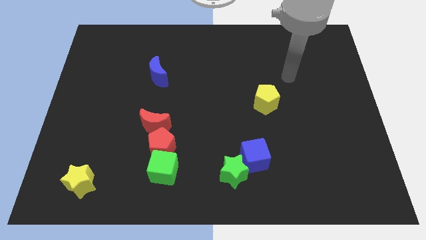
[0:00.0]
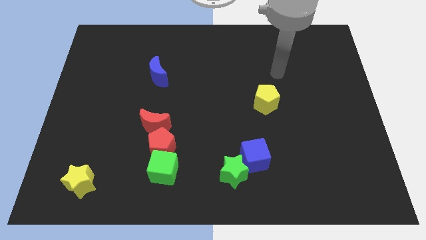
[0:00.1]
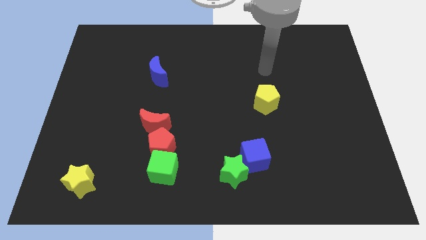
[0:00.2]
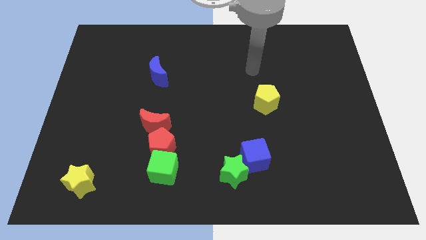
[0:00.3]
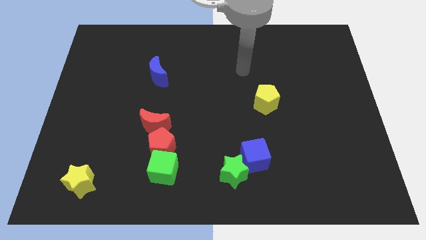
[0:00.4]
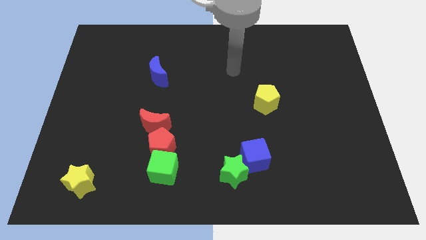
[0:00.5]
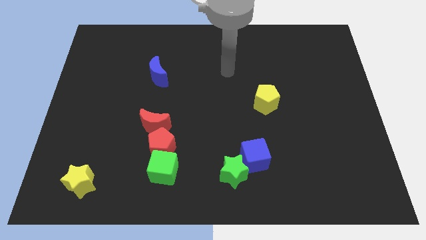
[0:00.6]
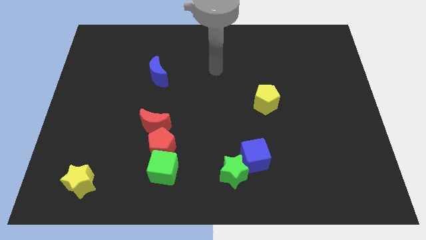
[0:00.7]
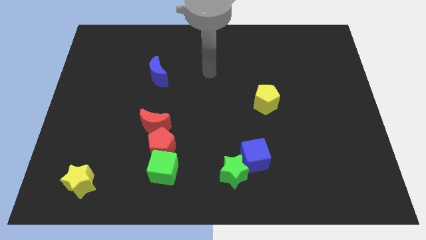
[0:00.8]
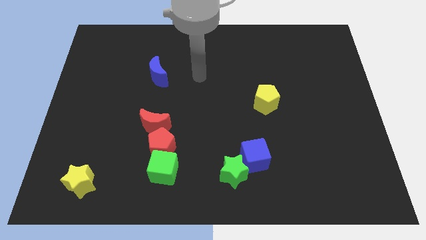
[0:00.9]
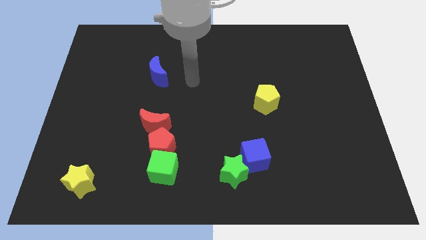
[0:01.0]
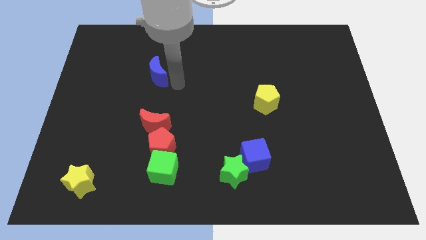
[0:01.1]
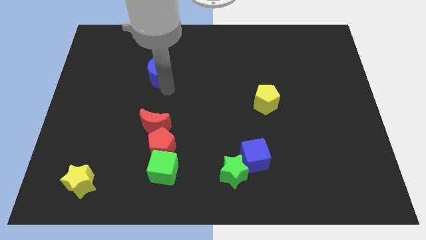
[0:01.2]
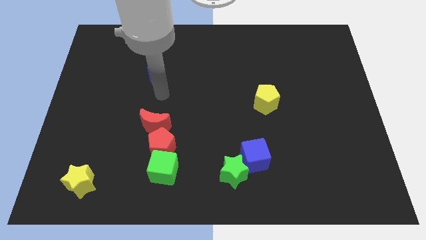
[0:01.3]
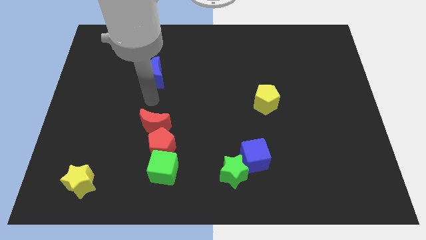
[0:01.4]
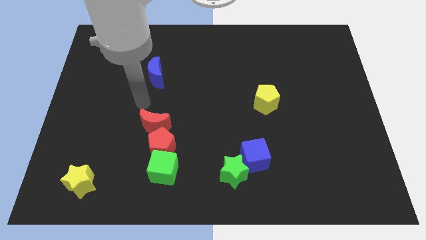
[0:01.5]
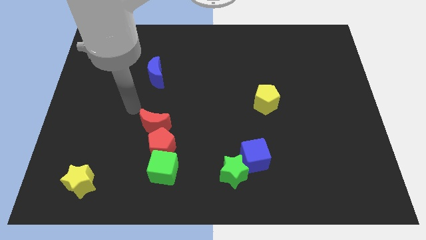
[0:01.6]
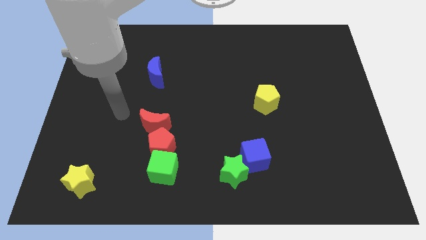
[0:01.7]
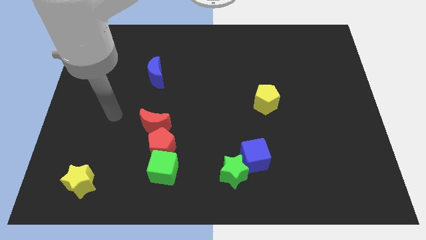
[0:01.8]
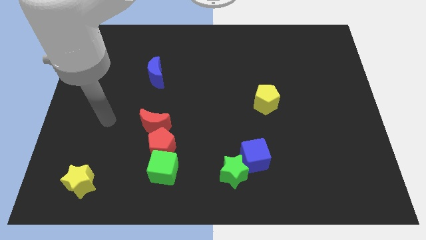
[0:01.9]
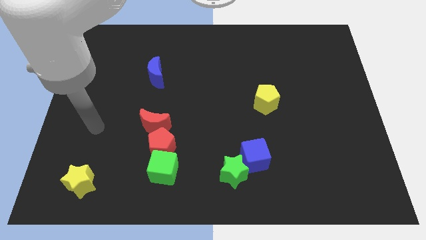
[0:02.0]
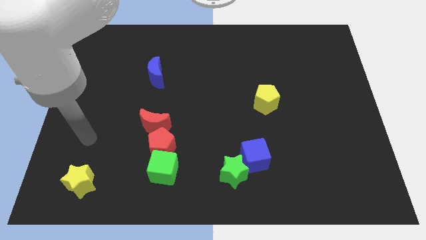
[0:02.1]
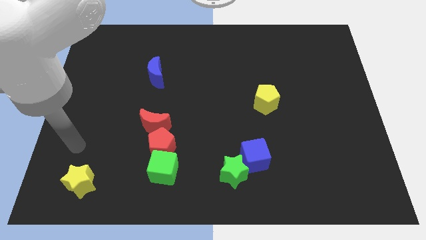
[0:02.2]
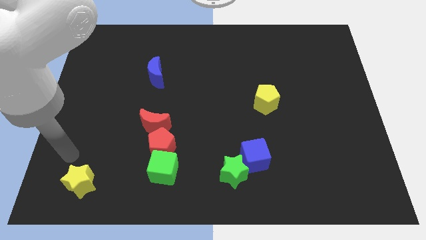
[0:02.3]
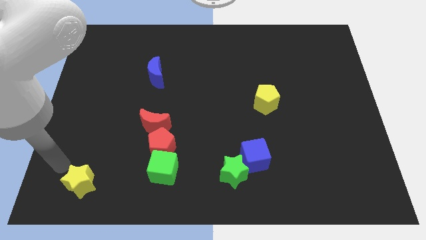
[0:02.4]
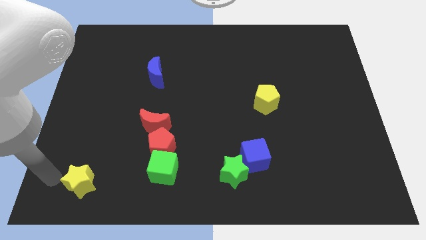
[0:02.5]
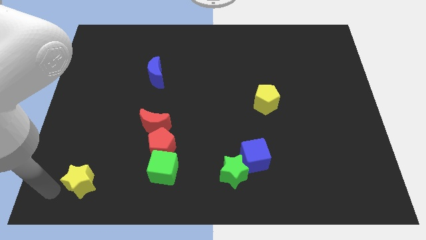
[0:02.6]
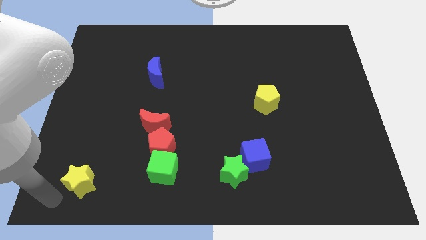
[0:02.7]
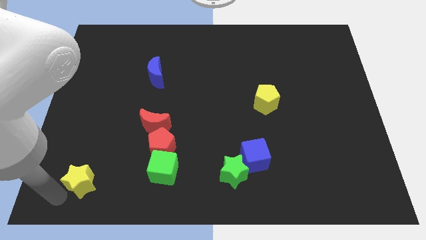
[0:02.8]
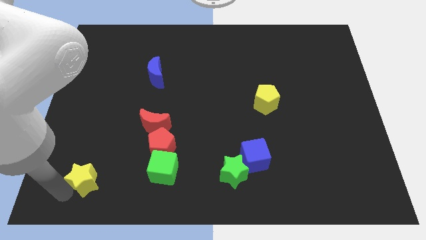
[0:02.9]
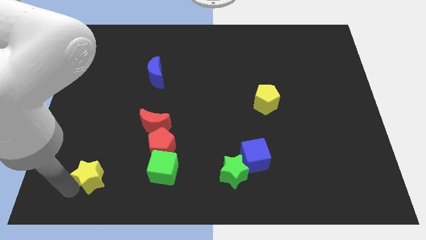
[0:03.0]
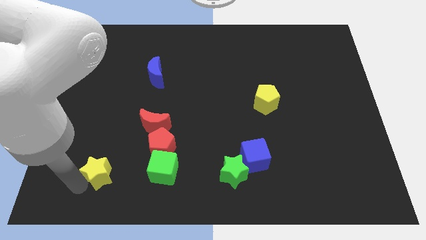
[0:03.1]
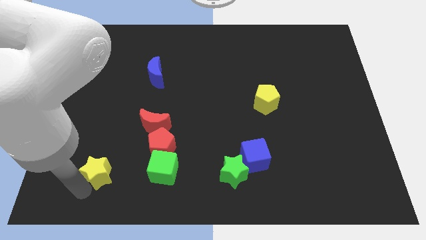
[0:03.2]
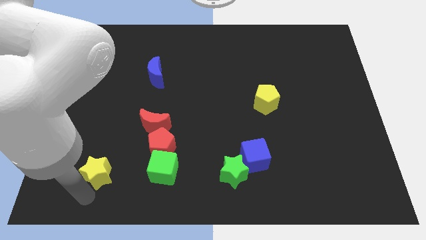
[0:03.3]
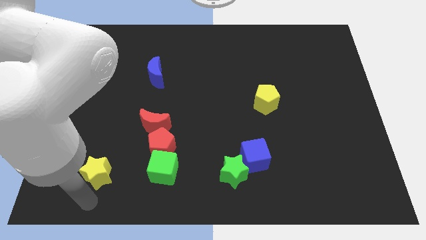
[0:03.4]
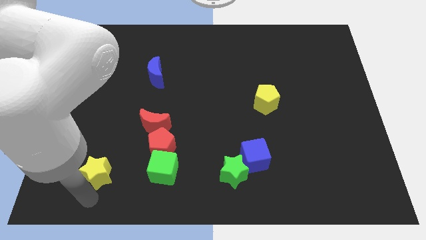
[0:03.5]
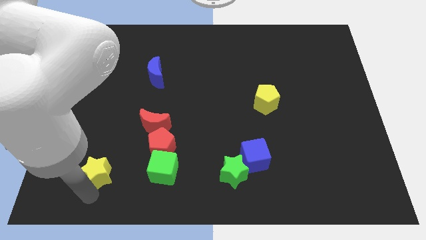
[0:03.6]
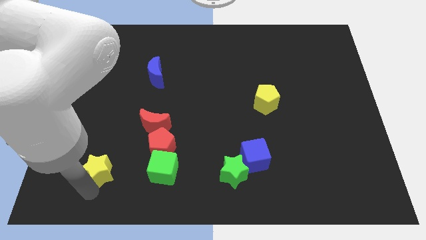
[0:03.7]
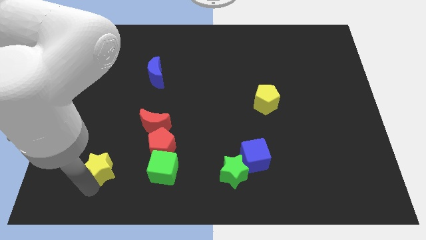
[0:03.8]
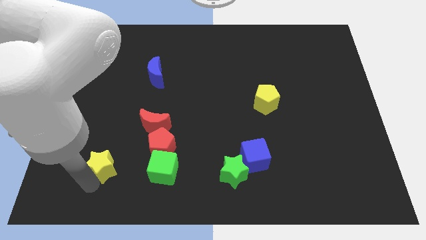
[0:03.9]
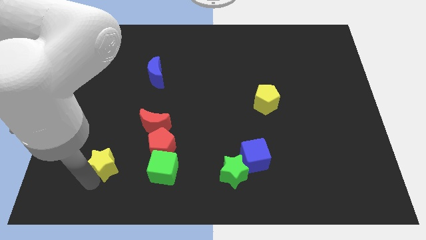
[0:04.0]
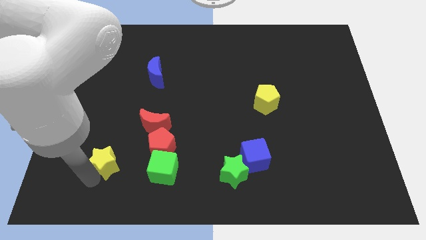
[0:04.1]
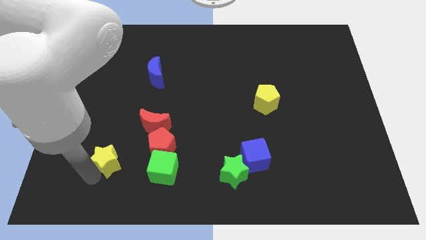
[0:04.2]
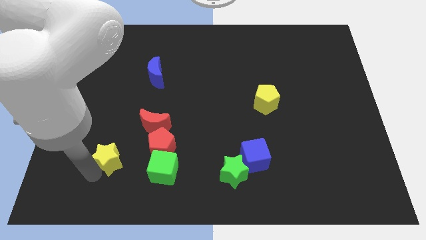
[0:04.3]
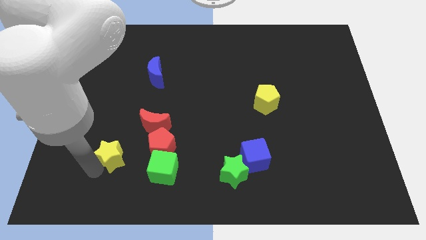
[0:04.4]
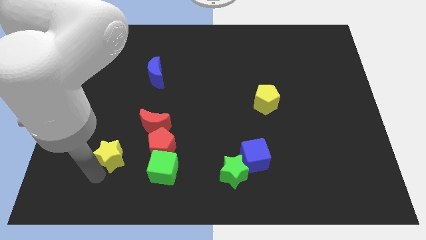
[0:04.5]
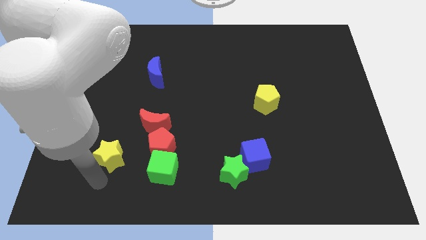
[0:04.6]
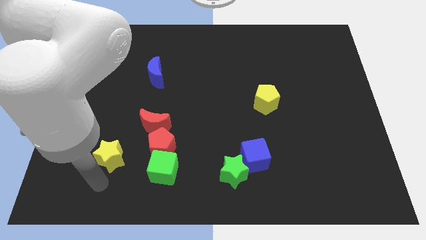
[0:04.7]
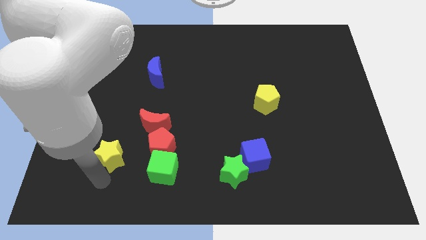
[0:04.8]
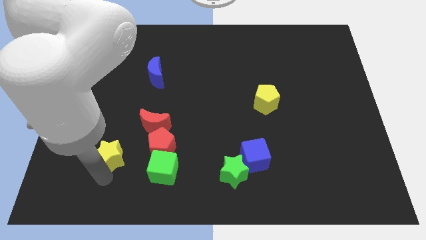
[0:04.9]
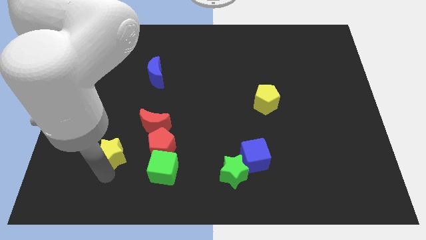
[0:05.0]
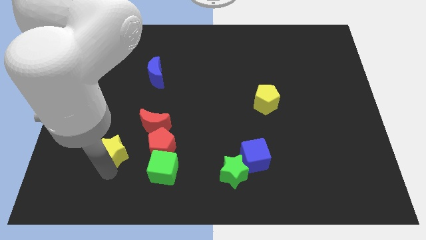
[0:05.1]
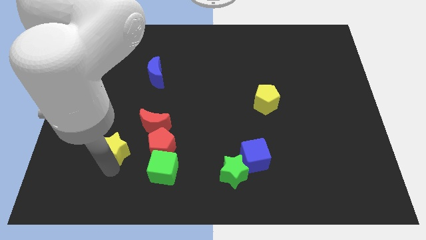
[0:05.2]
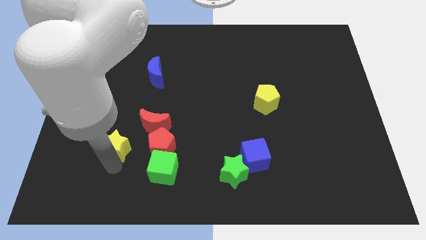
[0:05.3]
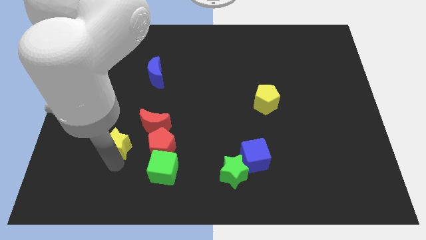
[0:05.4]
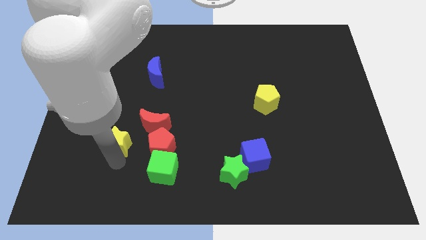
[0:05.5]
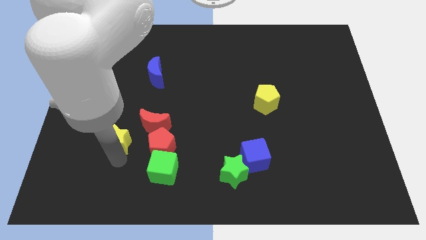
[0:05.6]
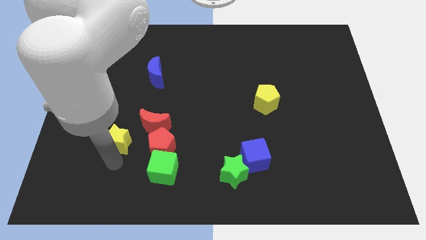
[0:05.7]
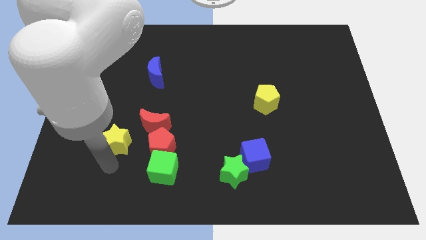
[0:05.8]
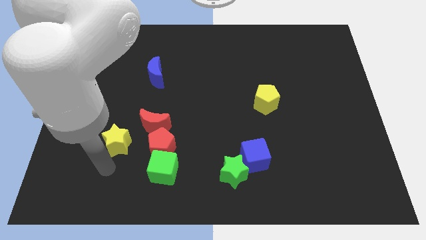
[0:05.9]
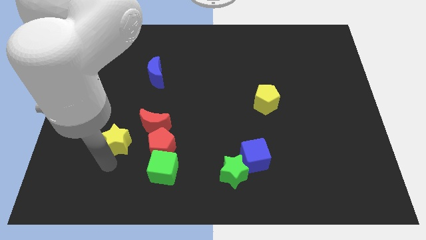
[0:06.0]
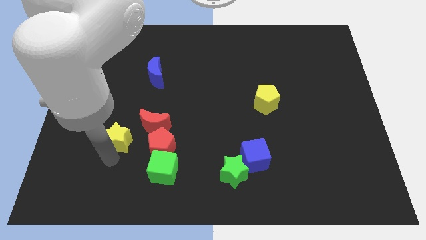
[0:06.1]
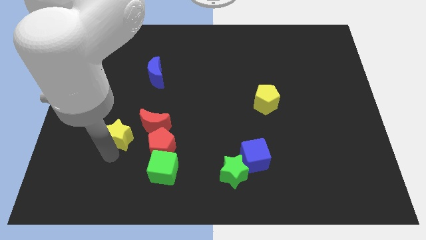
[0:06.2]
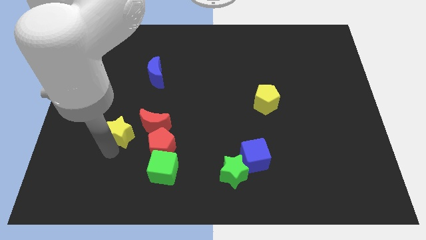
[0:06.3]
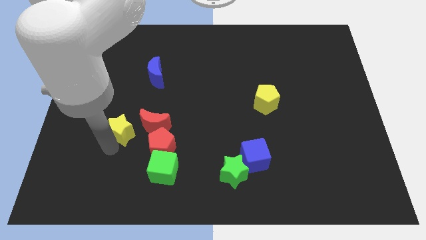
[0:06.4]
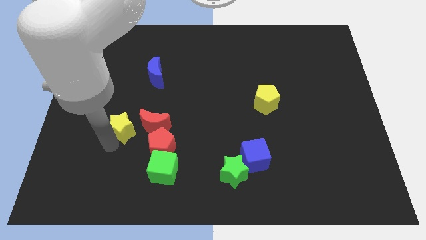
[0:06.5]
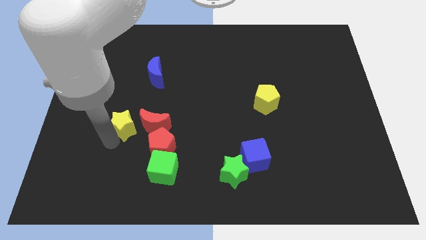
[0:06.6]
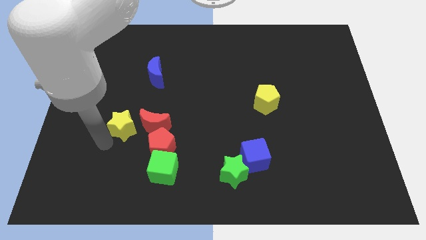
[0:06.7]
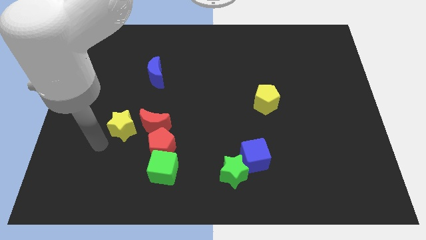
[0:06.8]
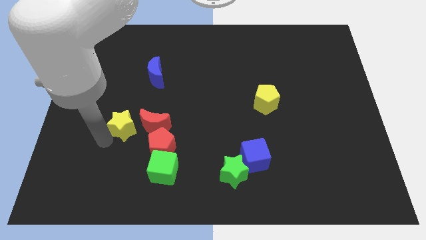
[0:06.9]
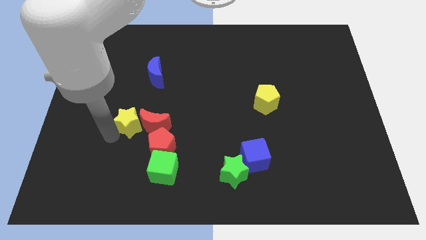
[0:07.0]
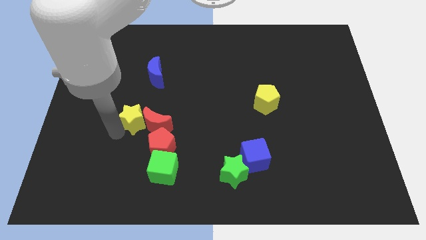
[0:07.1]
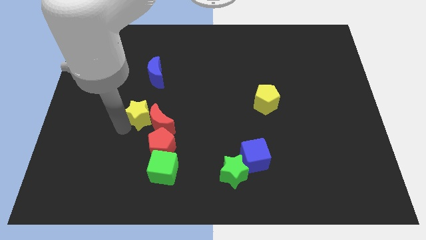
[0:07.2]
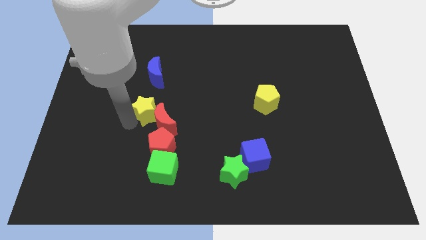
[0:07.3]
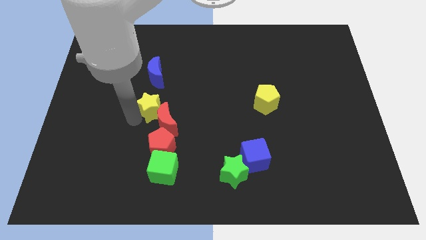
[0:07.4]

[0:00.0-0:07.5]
slide the yellow star up and then to the right

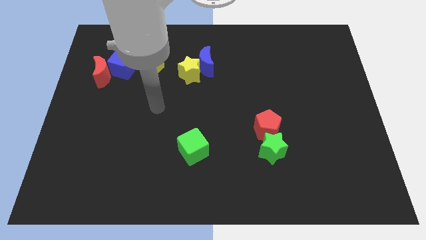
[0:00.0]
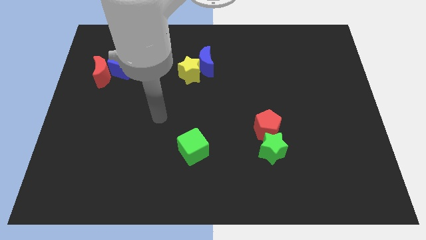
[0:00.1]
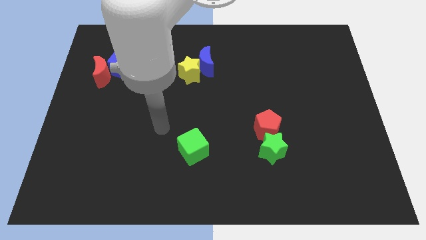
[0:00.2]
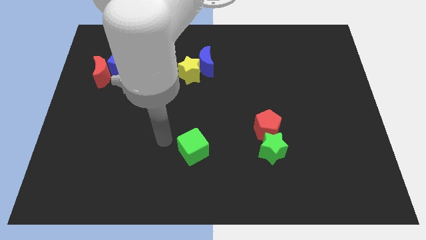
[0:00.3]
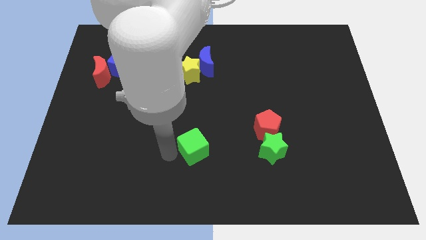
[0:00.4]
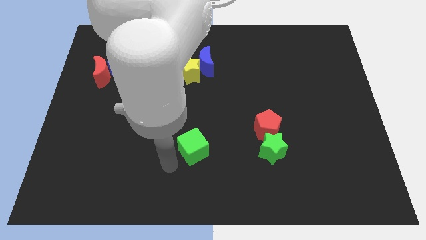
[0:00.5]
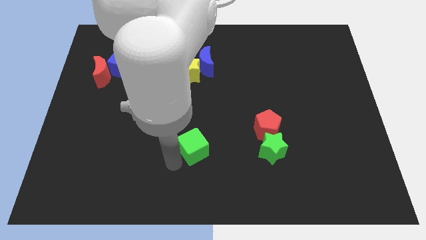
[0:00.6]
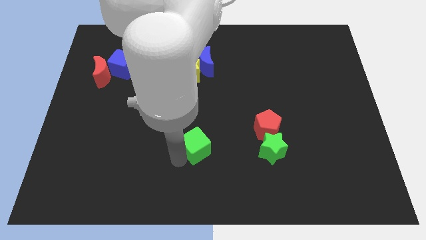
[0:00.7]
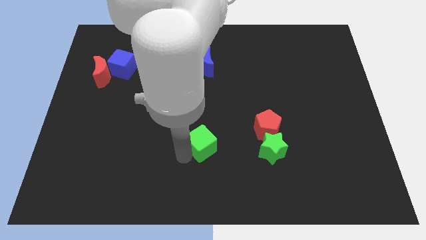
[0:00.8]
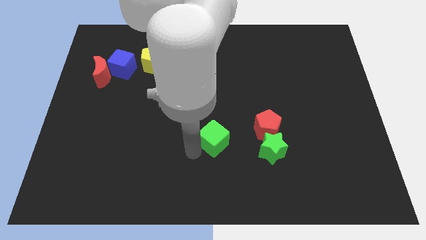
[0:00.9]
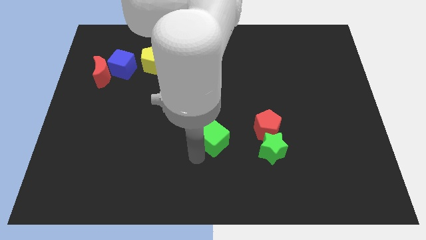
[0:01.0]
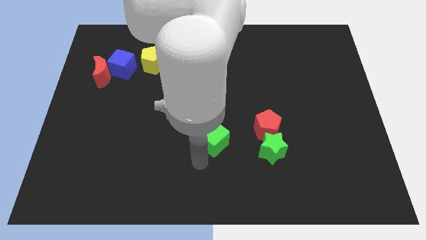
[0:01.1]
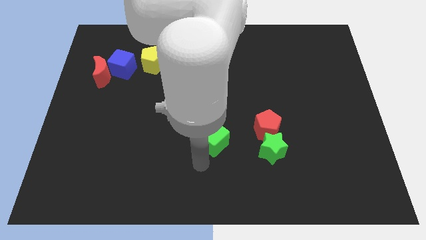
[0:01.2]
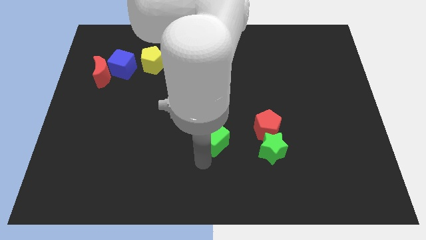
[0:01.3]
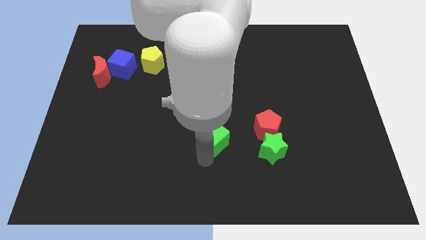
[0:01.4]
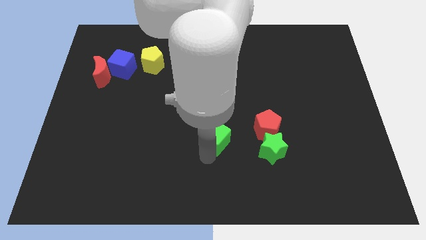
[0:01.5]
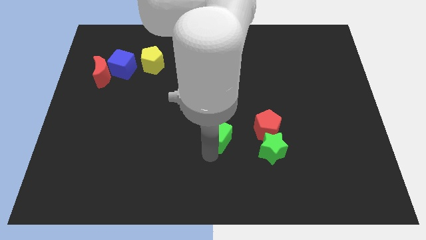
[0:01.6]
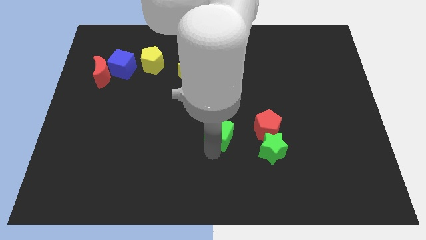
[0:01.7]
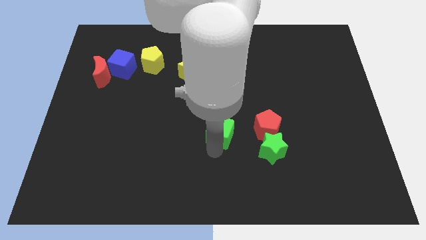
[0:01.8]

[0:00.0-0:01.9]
slide the green cube a little bit diagonally up and to the right
